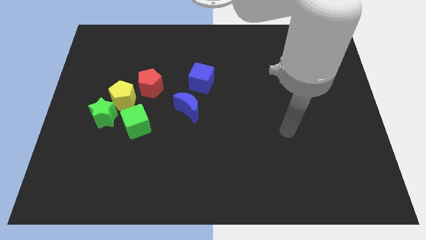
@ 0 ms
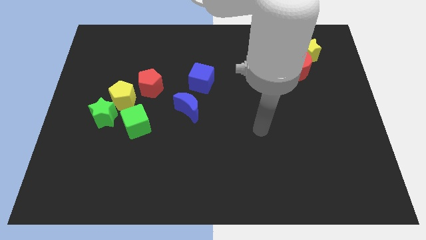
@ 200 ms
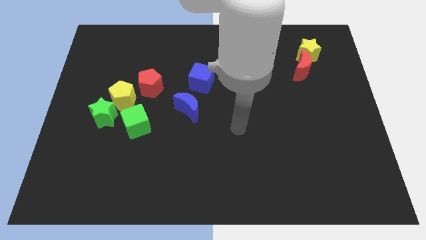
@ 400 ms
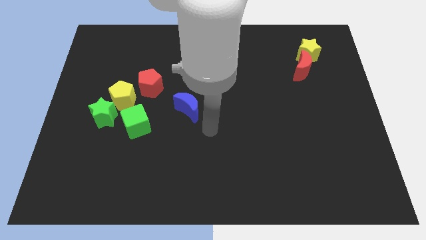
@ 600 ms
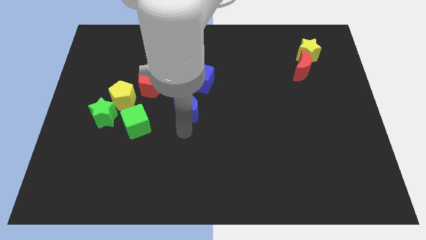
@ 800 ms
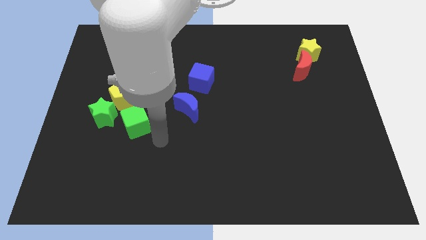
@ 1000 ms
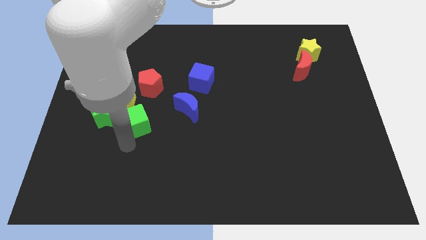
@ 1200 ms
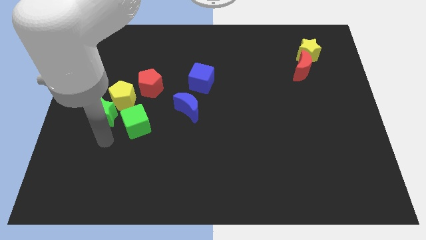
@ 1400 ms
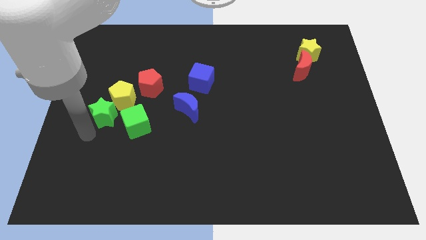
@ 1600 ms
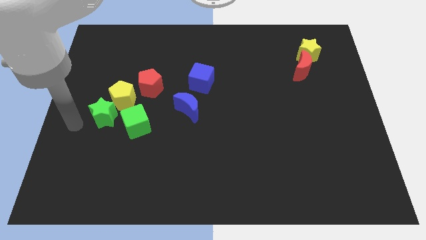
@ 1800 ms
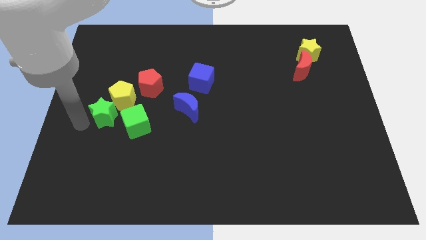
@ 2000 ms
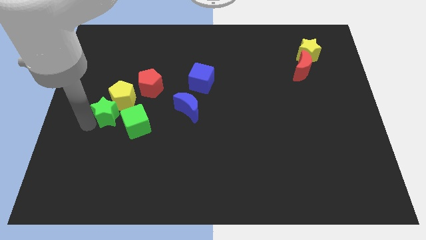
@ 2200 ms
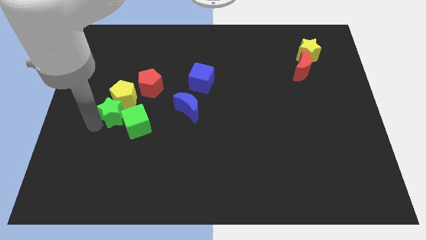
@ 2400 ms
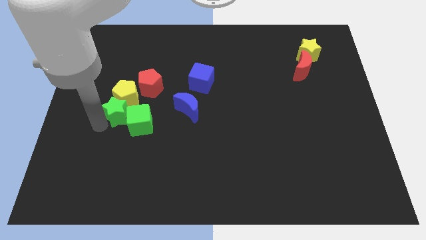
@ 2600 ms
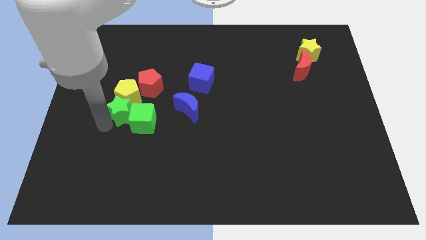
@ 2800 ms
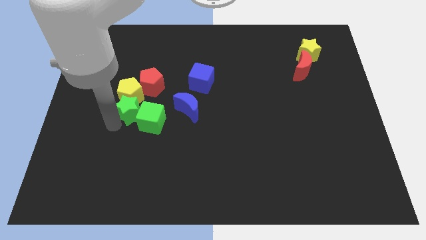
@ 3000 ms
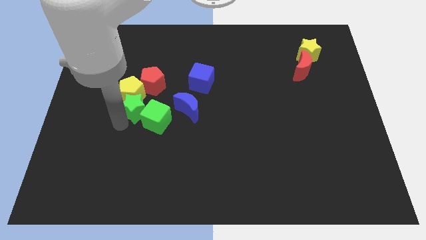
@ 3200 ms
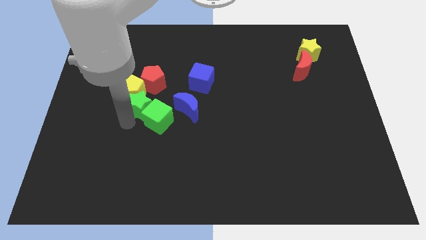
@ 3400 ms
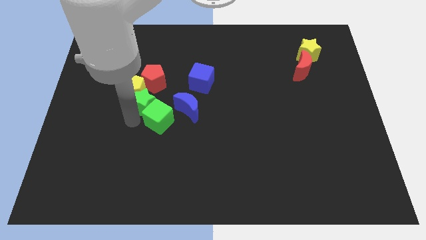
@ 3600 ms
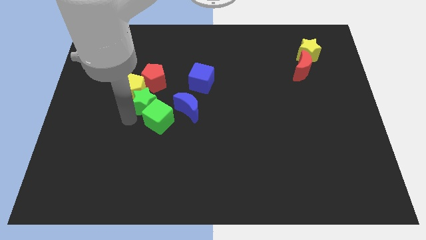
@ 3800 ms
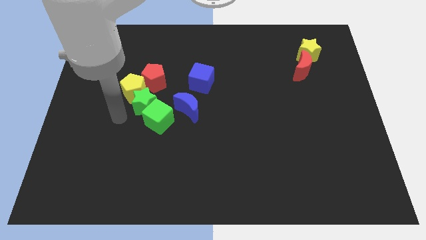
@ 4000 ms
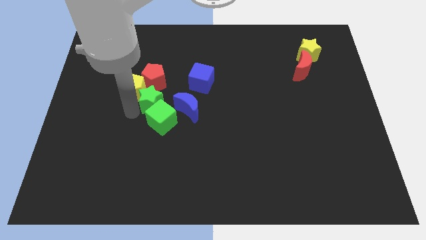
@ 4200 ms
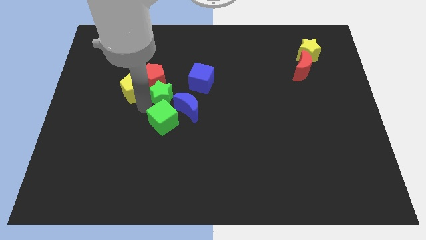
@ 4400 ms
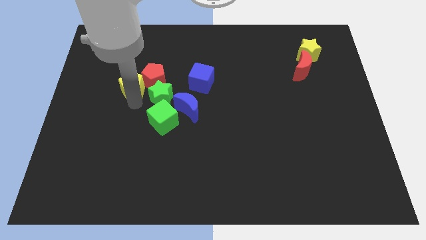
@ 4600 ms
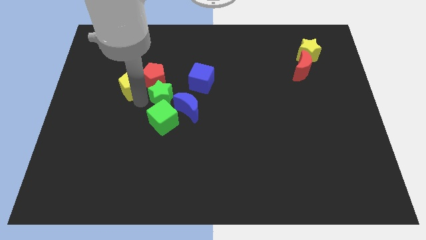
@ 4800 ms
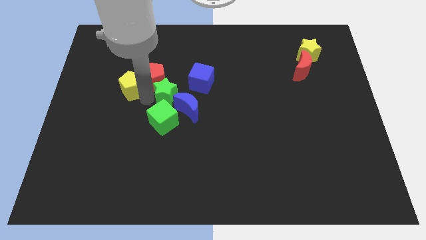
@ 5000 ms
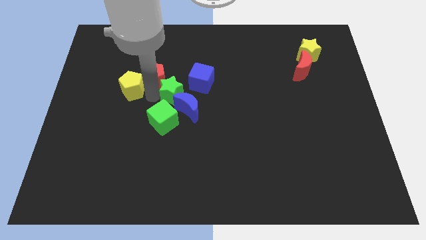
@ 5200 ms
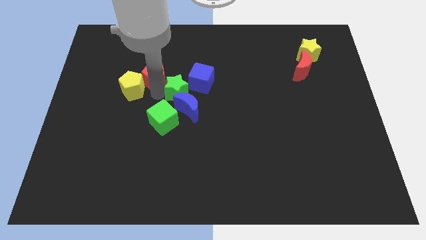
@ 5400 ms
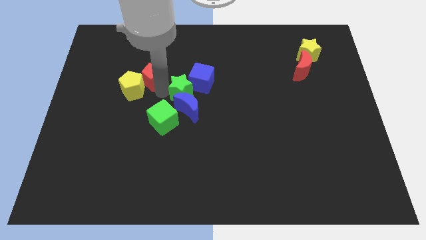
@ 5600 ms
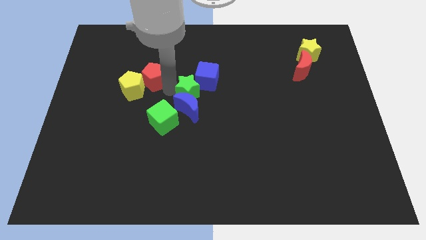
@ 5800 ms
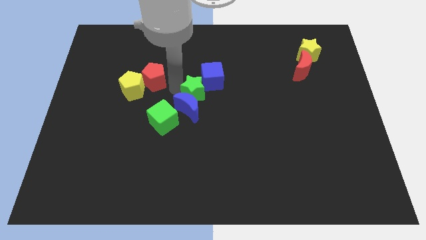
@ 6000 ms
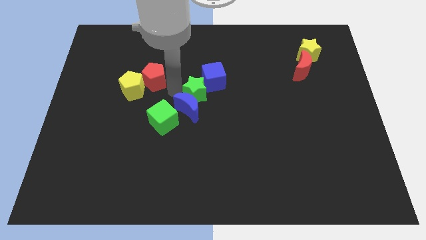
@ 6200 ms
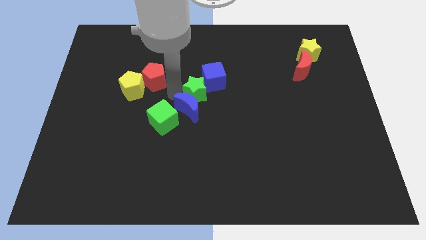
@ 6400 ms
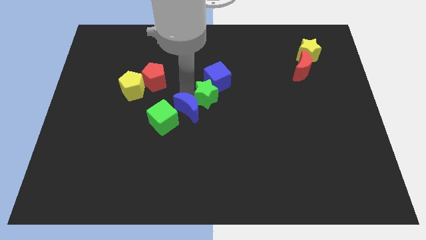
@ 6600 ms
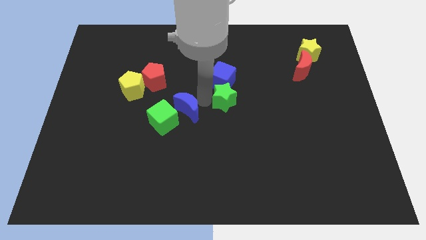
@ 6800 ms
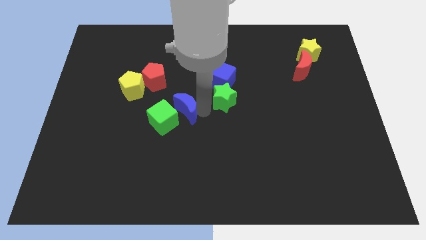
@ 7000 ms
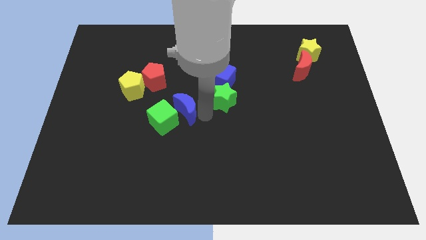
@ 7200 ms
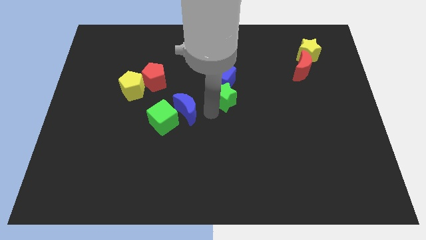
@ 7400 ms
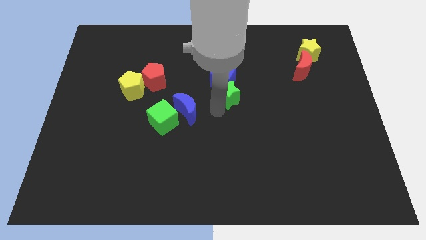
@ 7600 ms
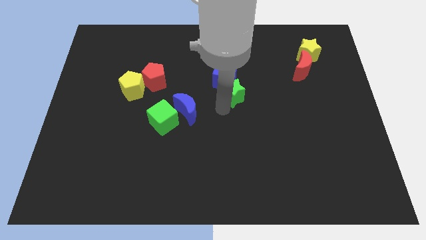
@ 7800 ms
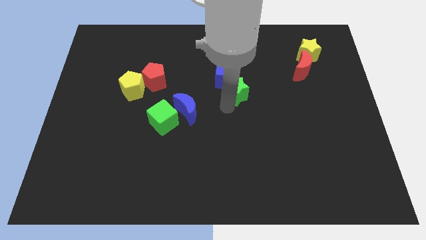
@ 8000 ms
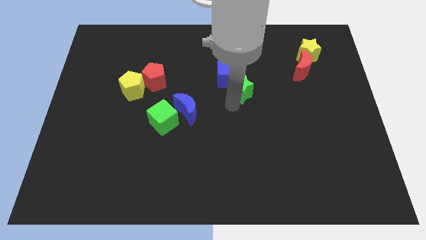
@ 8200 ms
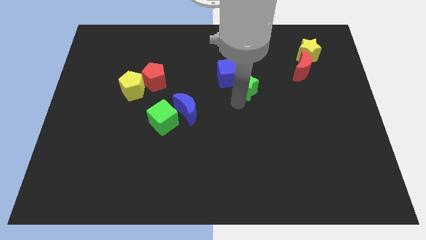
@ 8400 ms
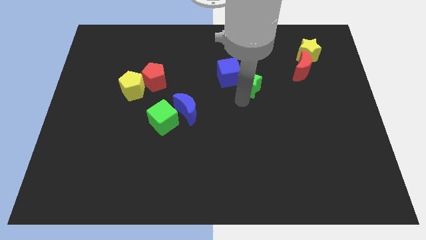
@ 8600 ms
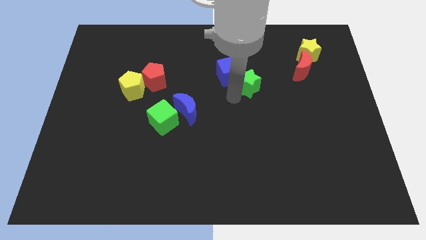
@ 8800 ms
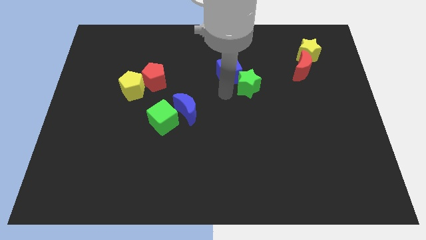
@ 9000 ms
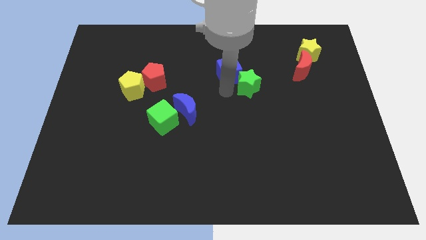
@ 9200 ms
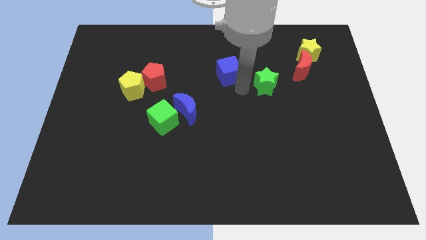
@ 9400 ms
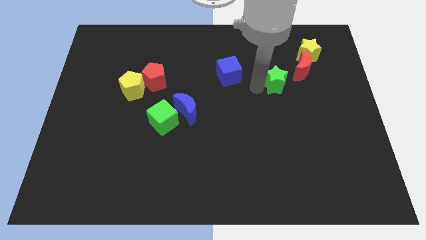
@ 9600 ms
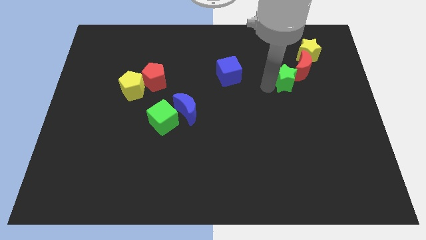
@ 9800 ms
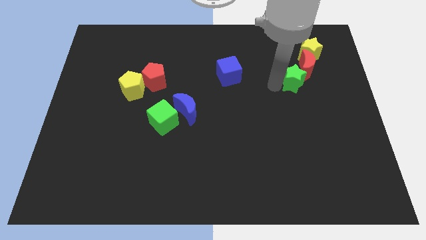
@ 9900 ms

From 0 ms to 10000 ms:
slide the green star next to the red moon

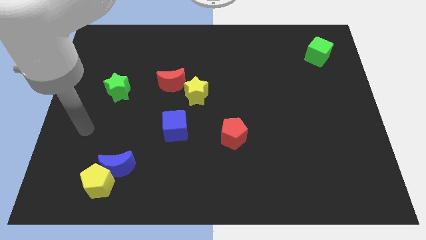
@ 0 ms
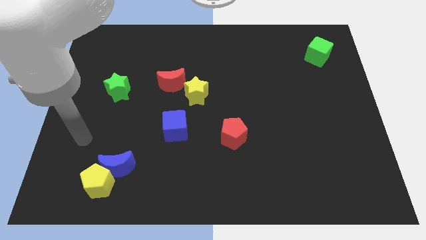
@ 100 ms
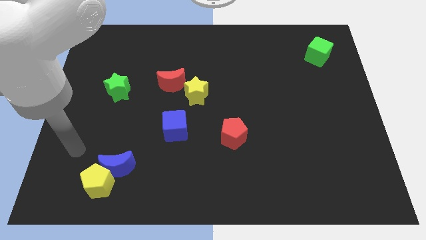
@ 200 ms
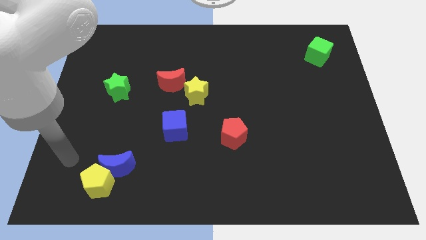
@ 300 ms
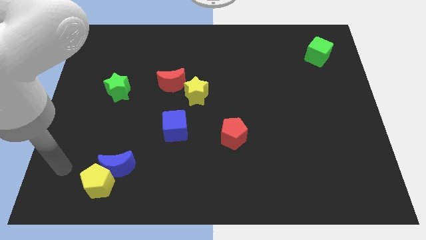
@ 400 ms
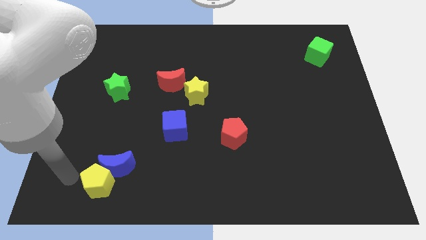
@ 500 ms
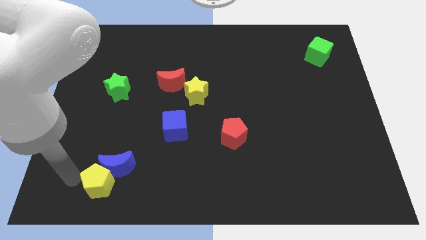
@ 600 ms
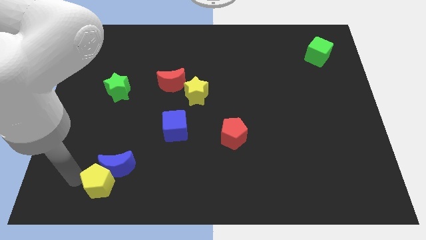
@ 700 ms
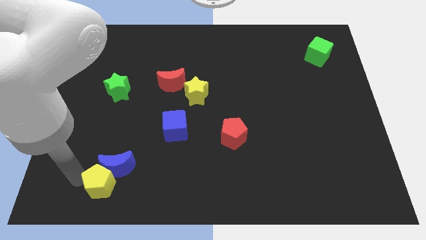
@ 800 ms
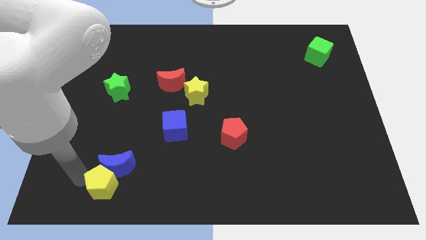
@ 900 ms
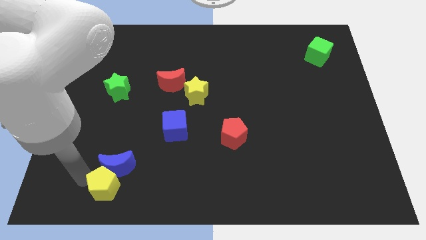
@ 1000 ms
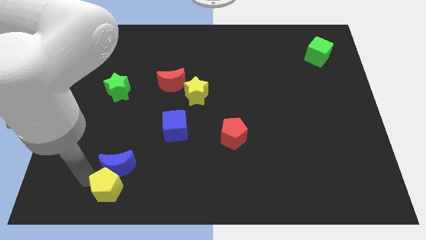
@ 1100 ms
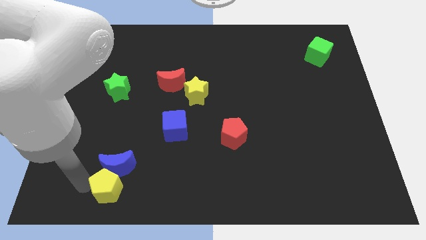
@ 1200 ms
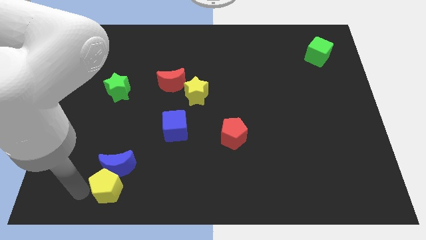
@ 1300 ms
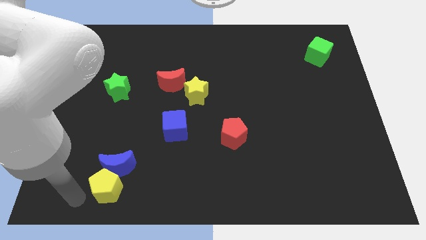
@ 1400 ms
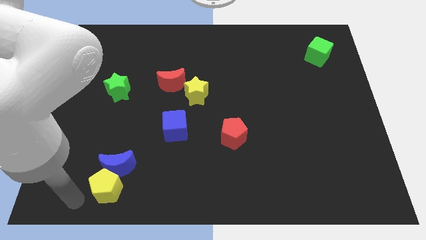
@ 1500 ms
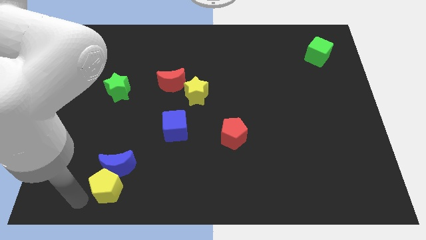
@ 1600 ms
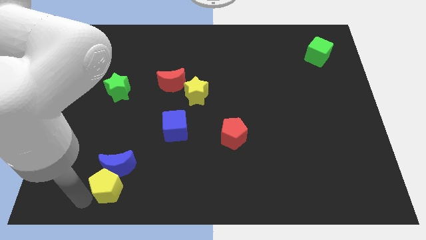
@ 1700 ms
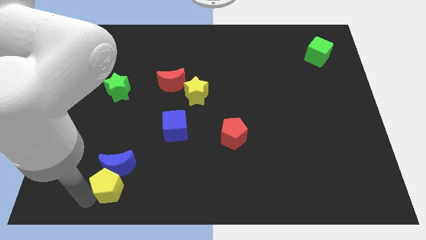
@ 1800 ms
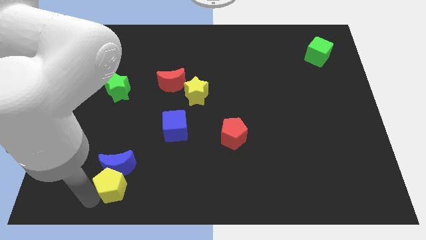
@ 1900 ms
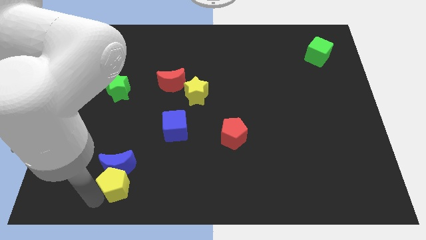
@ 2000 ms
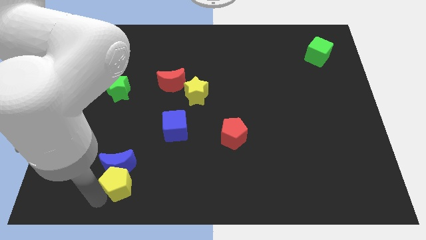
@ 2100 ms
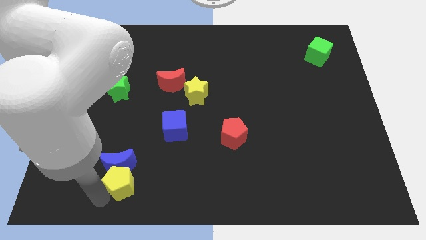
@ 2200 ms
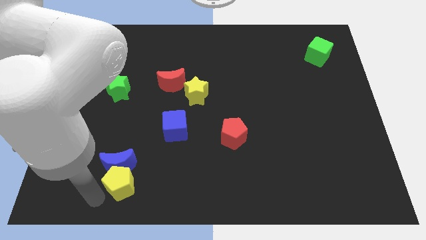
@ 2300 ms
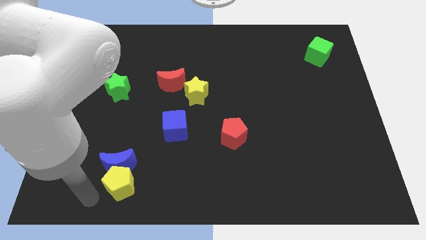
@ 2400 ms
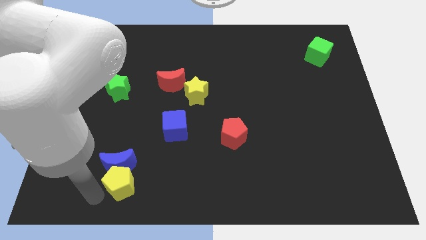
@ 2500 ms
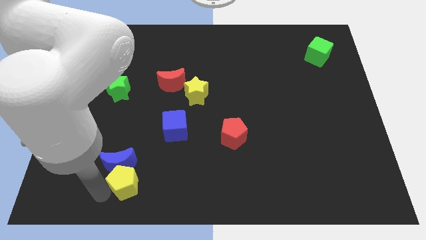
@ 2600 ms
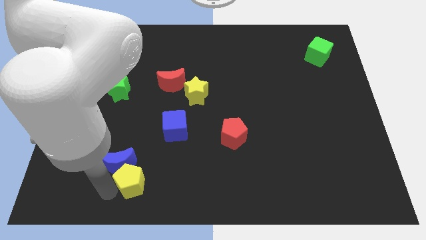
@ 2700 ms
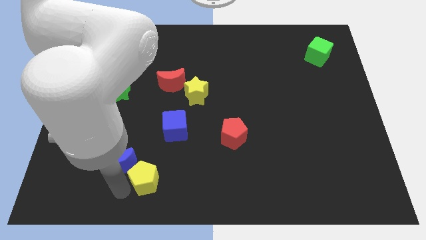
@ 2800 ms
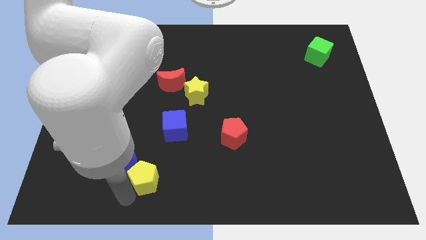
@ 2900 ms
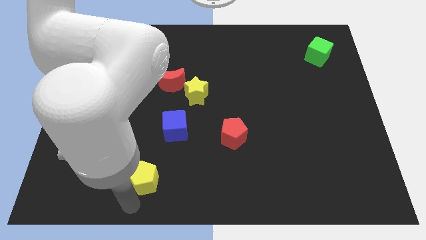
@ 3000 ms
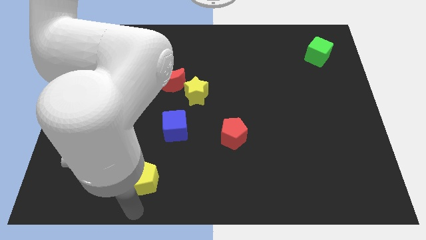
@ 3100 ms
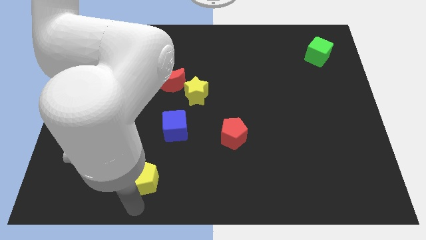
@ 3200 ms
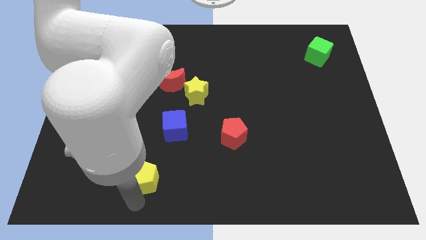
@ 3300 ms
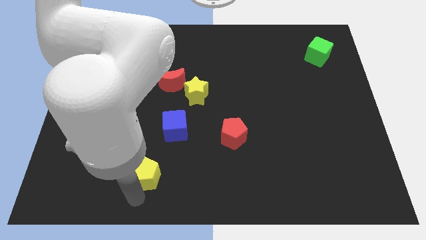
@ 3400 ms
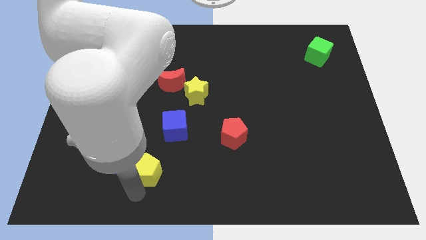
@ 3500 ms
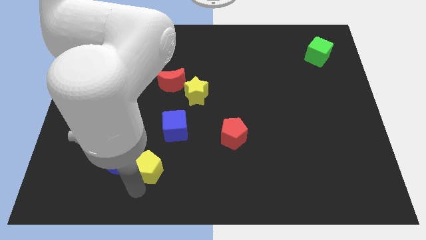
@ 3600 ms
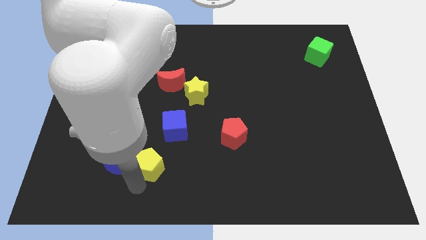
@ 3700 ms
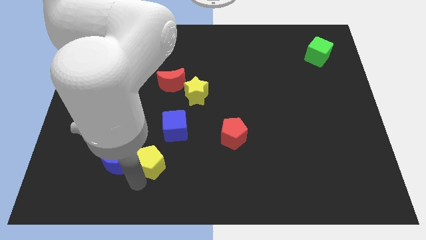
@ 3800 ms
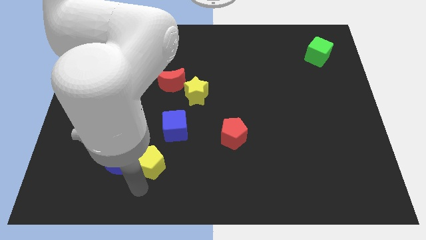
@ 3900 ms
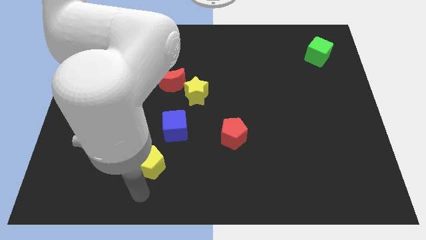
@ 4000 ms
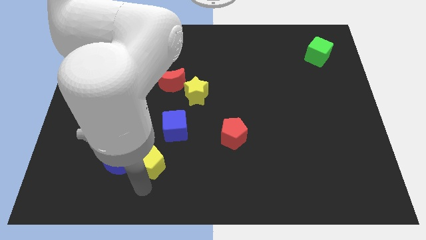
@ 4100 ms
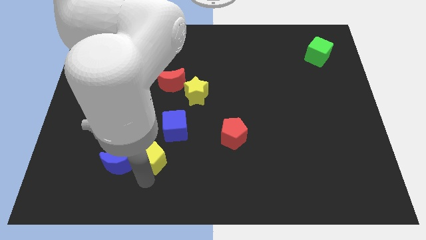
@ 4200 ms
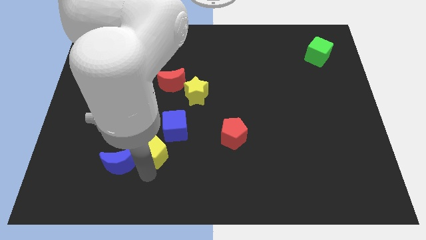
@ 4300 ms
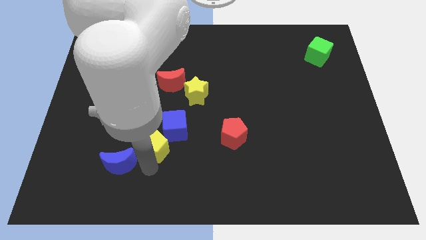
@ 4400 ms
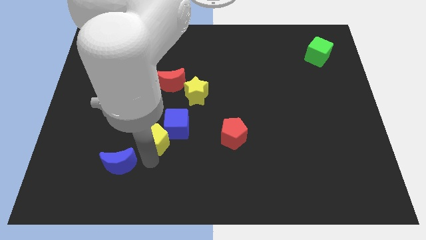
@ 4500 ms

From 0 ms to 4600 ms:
slide the yellow pentagon towards the blue cube
